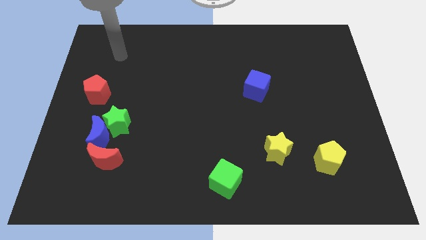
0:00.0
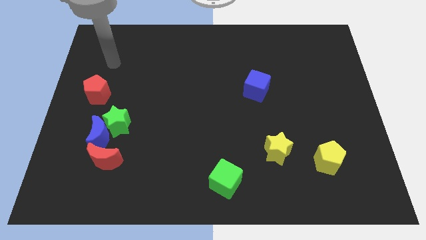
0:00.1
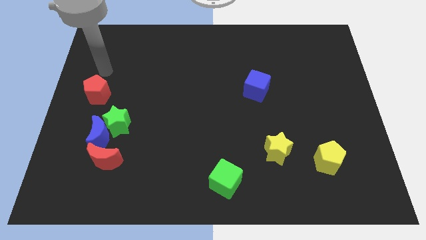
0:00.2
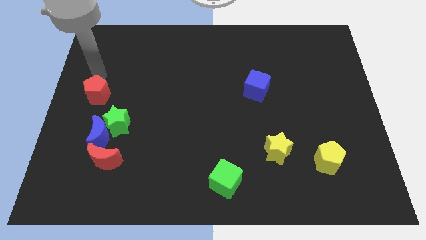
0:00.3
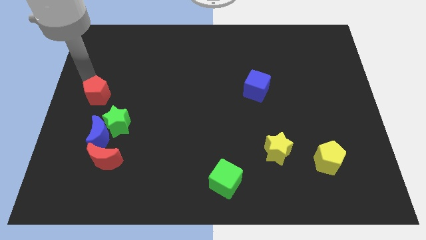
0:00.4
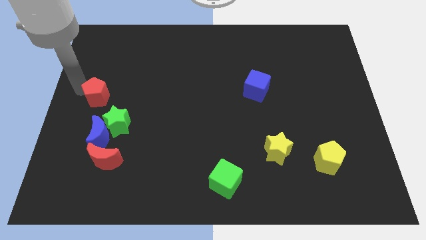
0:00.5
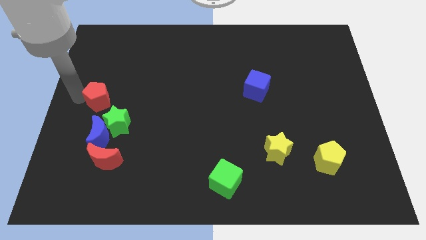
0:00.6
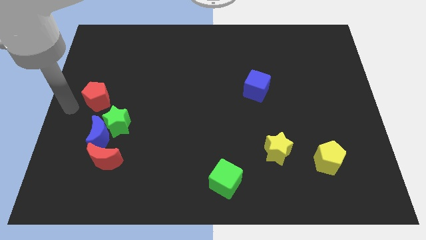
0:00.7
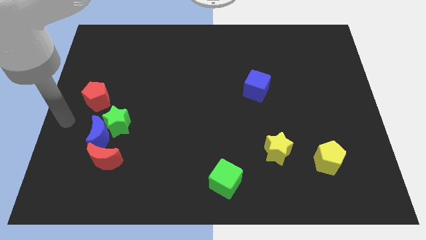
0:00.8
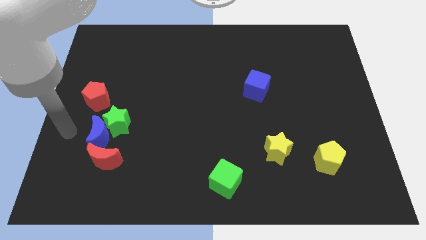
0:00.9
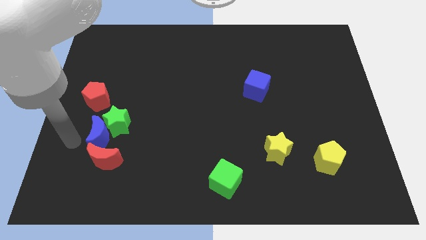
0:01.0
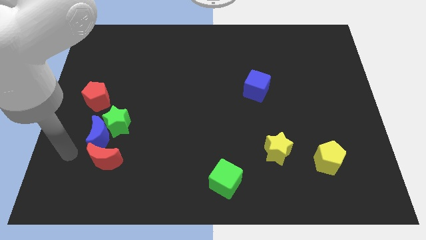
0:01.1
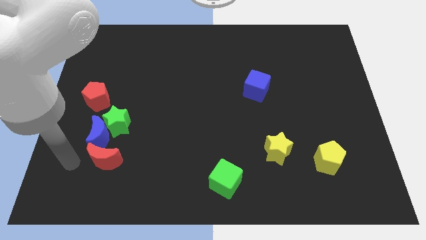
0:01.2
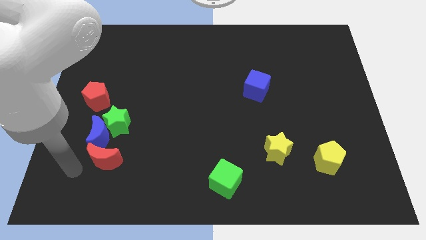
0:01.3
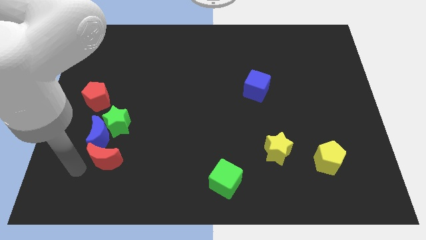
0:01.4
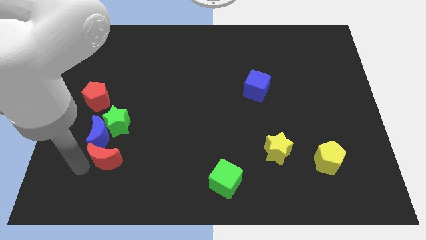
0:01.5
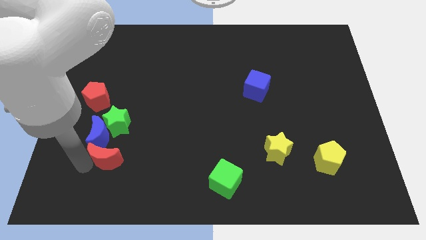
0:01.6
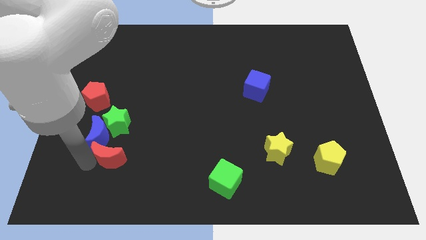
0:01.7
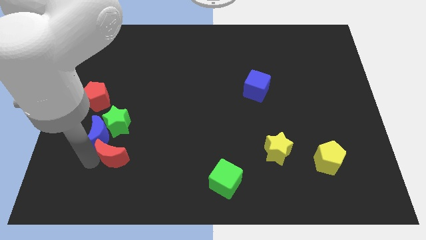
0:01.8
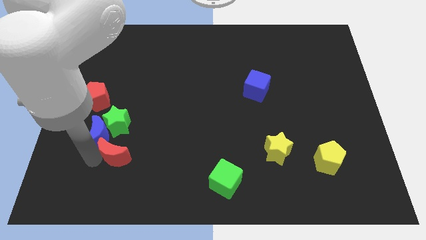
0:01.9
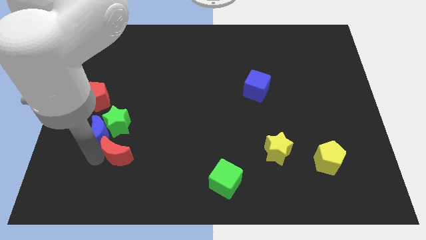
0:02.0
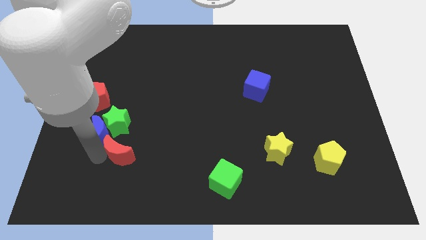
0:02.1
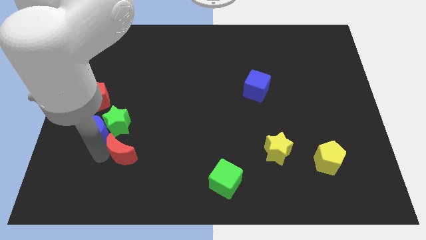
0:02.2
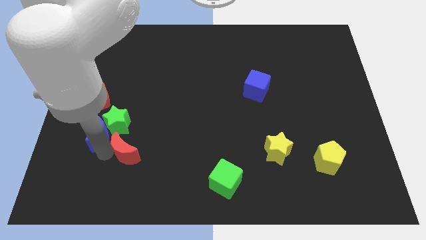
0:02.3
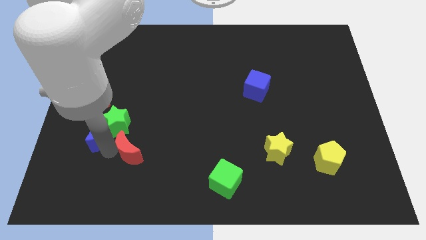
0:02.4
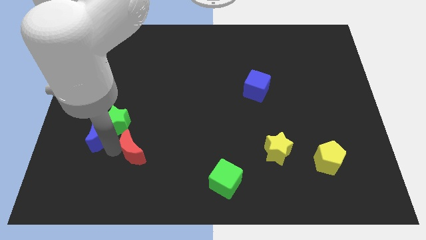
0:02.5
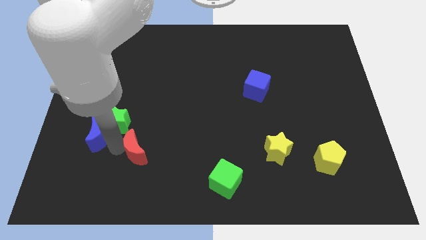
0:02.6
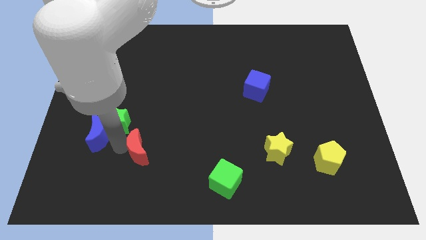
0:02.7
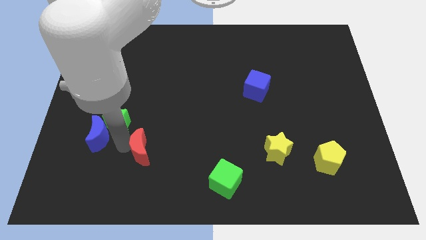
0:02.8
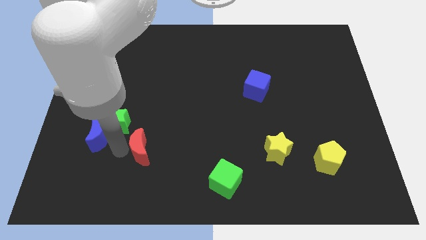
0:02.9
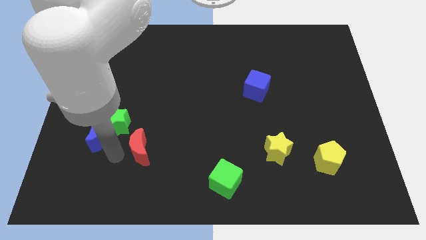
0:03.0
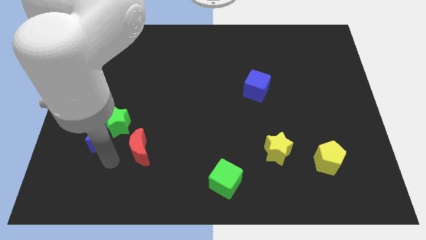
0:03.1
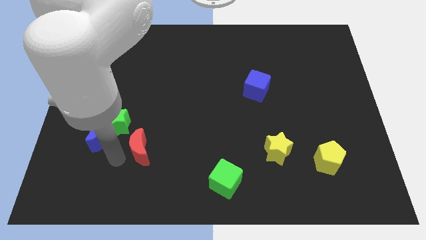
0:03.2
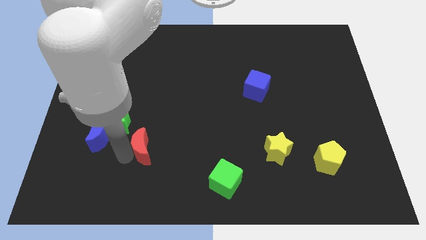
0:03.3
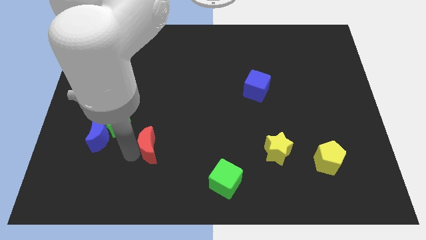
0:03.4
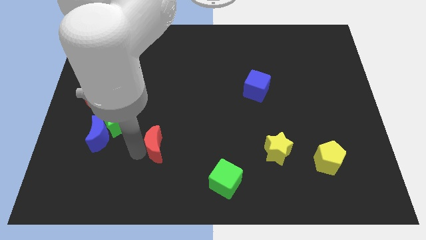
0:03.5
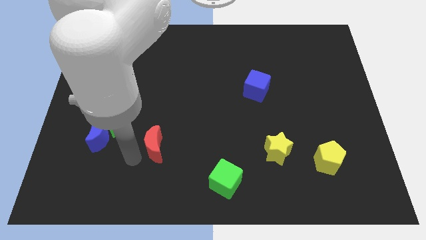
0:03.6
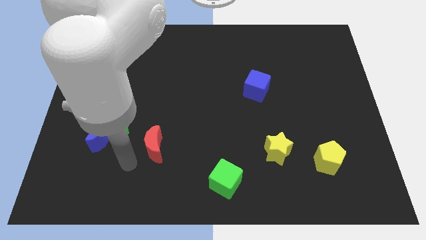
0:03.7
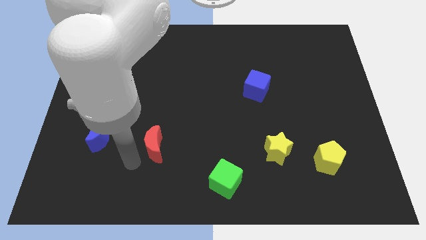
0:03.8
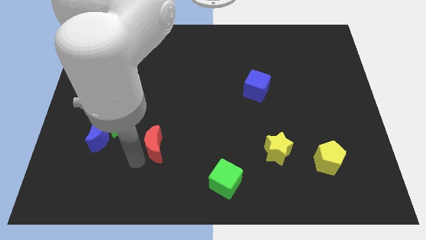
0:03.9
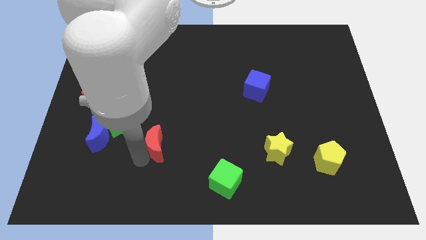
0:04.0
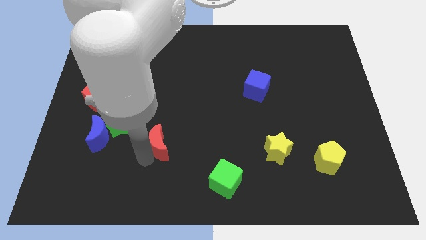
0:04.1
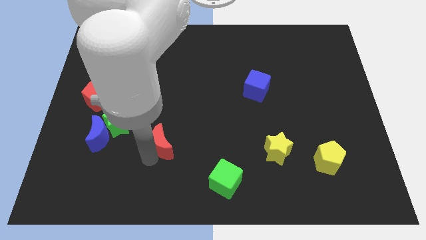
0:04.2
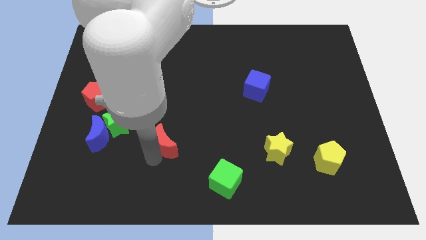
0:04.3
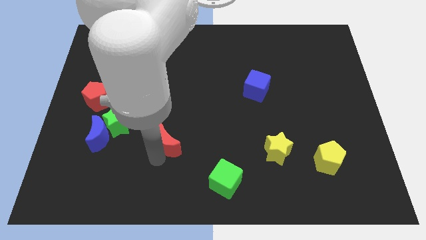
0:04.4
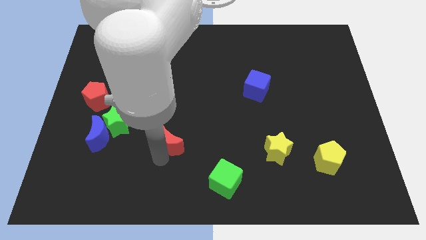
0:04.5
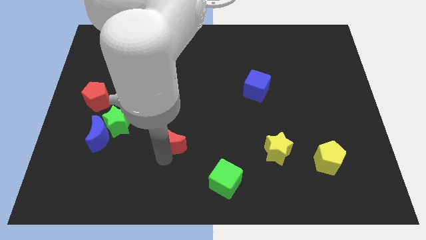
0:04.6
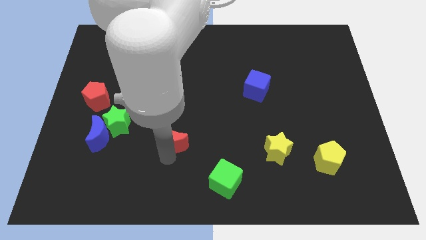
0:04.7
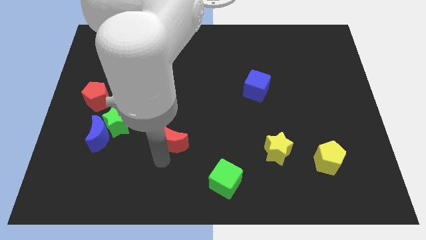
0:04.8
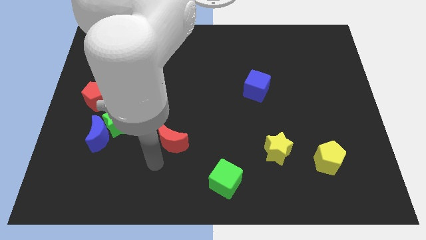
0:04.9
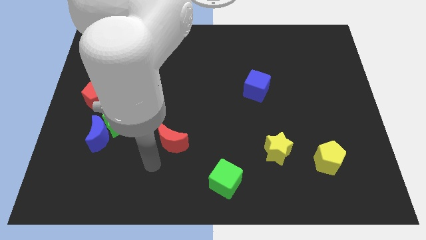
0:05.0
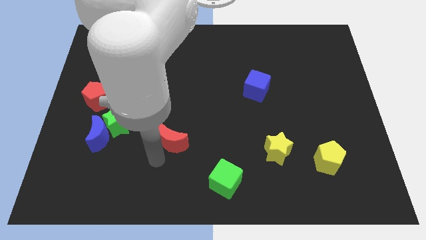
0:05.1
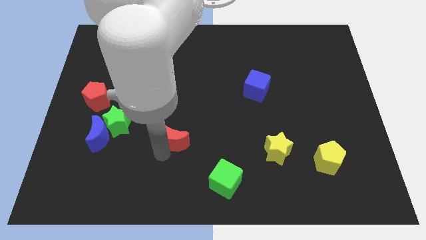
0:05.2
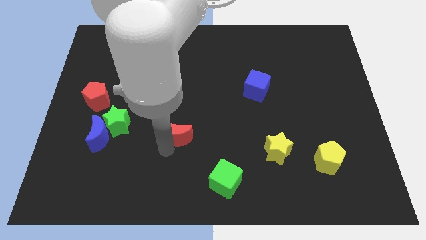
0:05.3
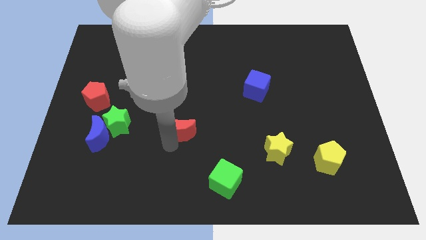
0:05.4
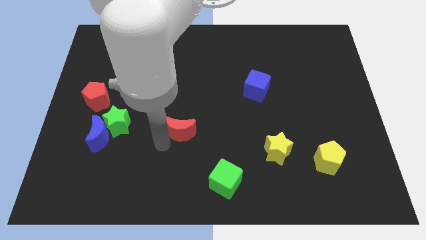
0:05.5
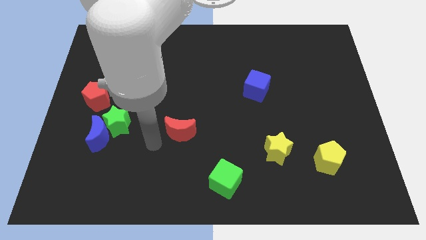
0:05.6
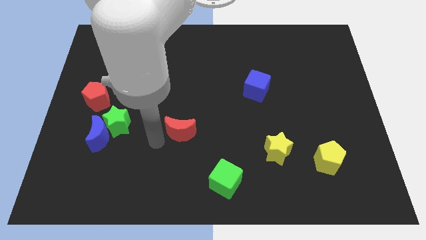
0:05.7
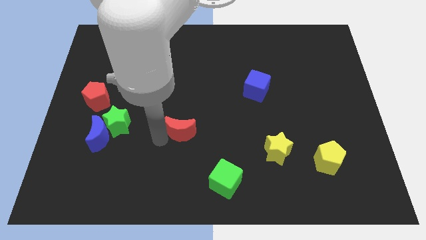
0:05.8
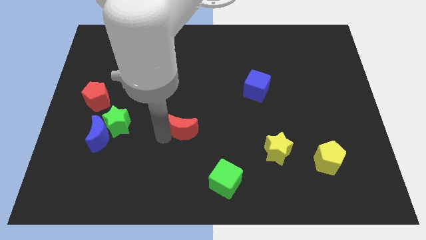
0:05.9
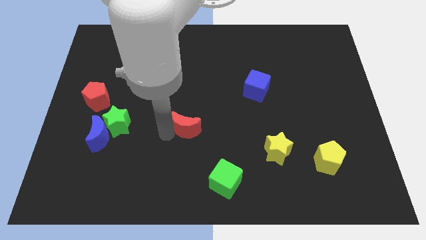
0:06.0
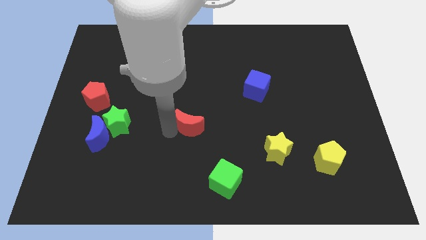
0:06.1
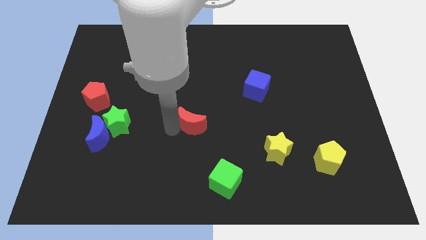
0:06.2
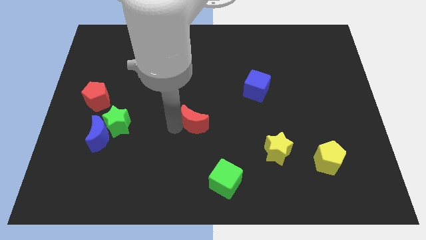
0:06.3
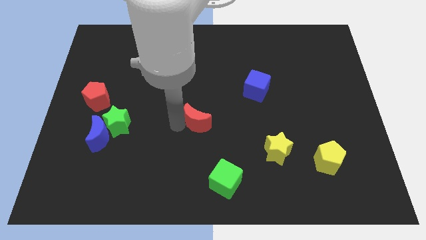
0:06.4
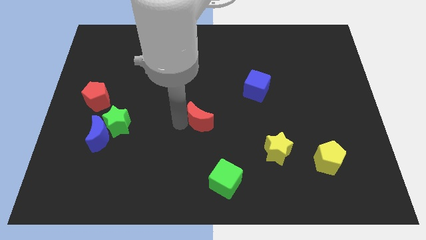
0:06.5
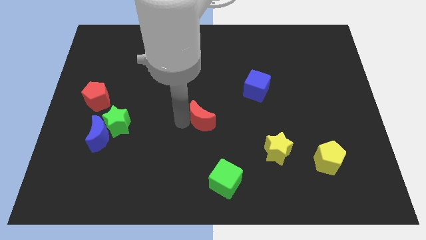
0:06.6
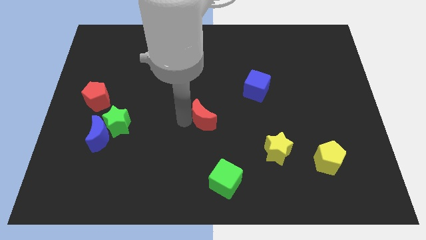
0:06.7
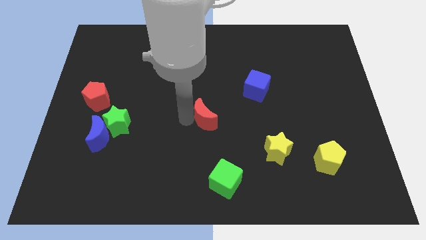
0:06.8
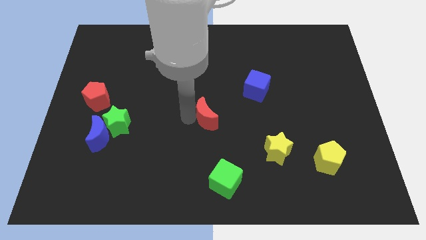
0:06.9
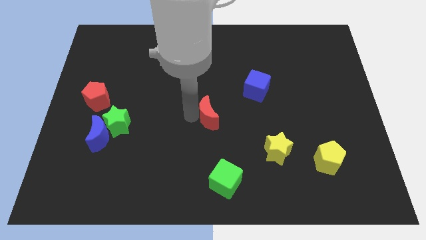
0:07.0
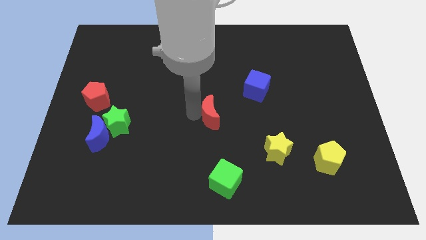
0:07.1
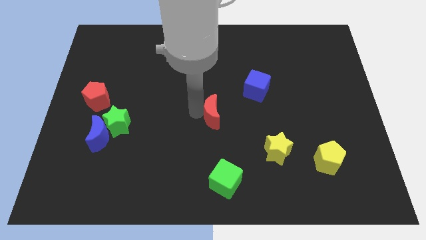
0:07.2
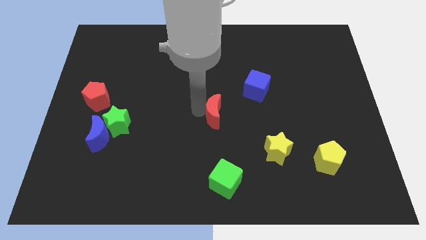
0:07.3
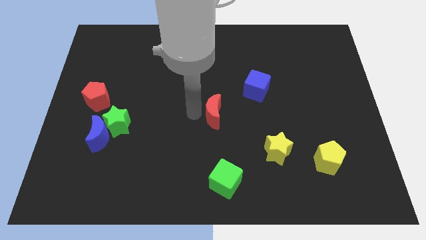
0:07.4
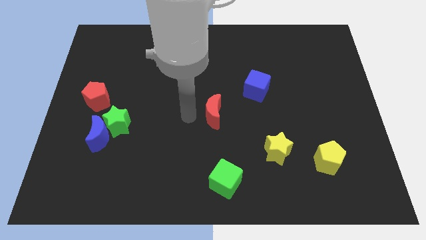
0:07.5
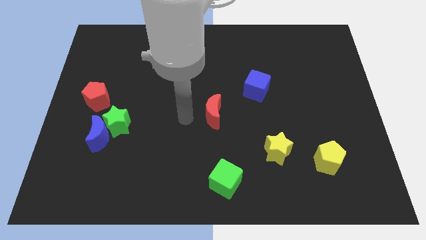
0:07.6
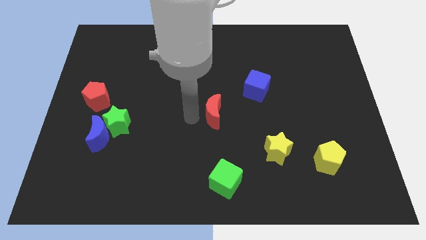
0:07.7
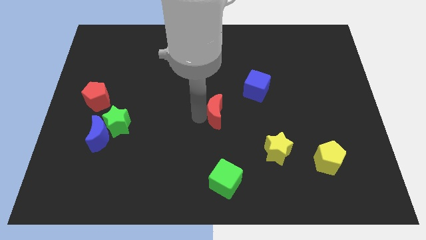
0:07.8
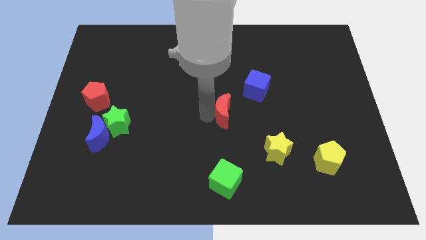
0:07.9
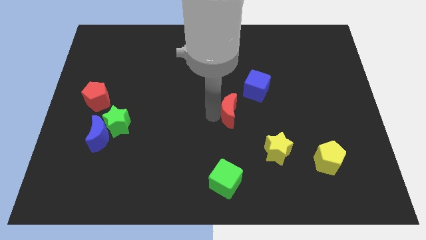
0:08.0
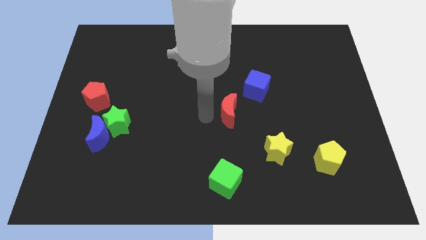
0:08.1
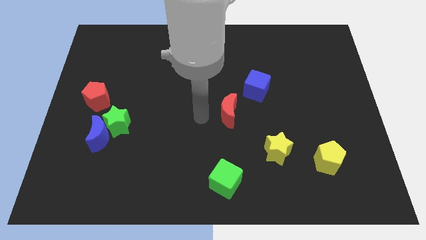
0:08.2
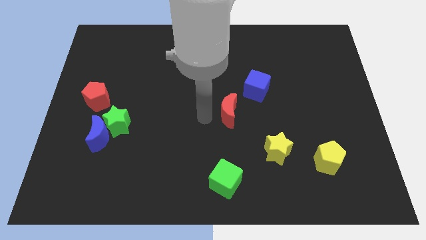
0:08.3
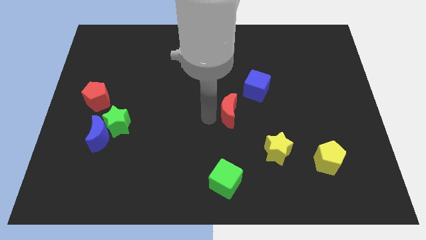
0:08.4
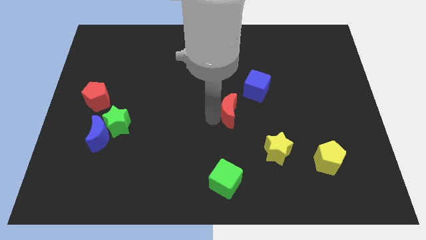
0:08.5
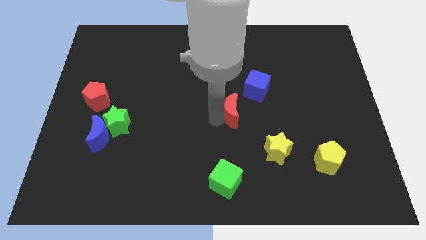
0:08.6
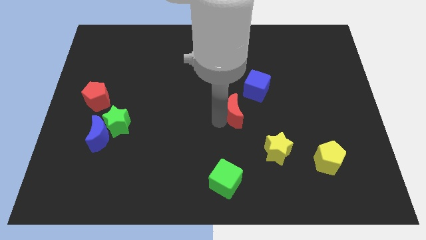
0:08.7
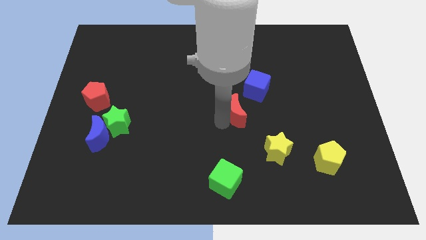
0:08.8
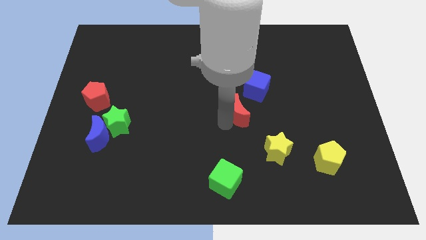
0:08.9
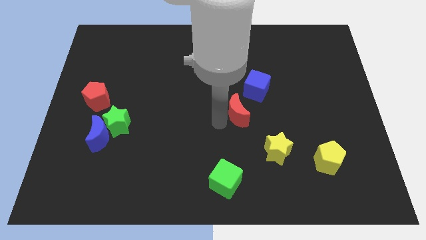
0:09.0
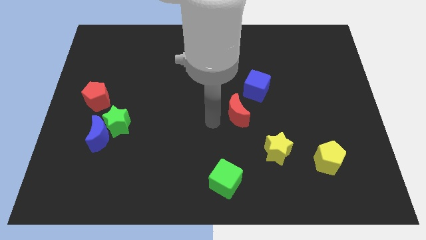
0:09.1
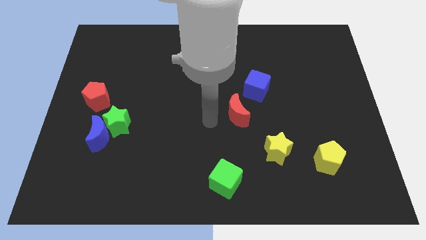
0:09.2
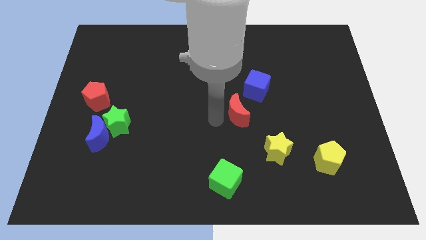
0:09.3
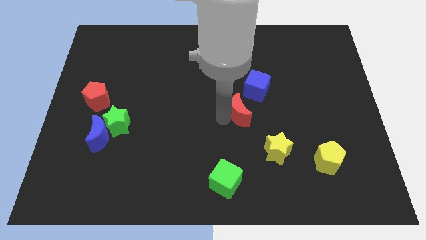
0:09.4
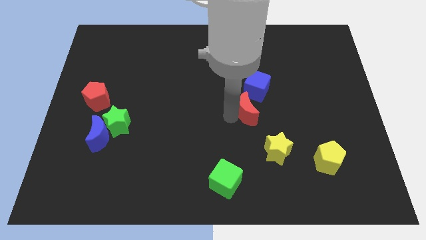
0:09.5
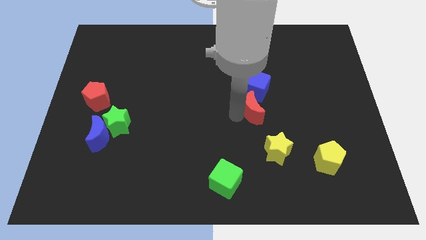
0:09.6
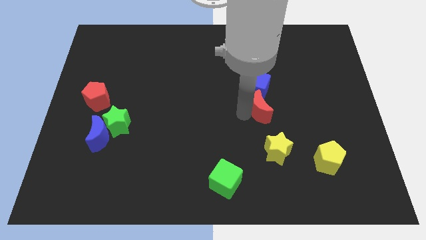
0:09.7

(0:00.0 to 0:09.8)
put the red moon diagonally down and to the right of the blue cube
